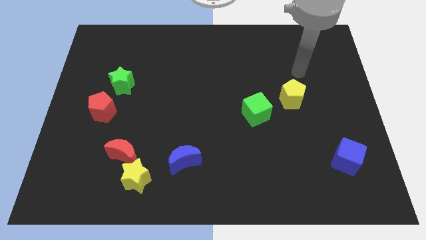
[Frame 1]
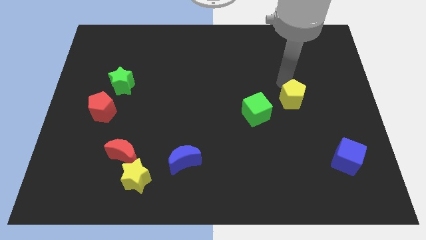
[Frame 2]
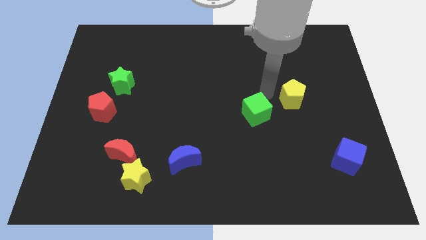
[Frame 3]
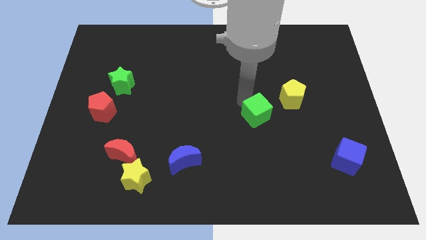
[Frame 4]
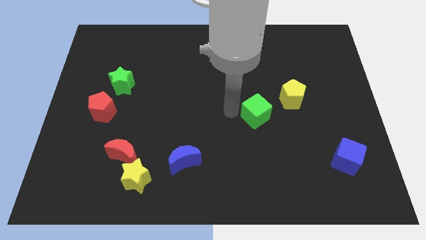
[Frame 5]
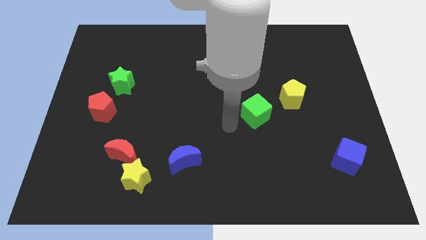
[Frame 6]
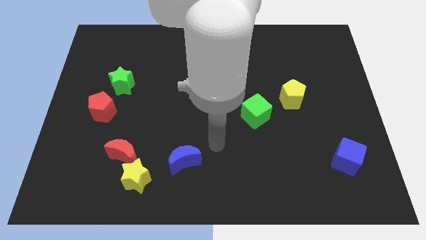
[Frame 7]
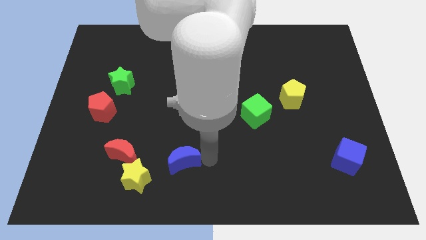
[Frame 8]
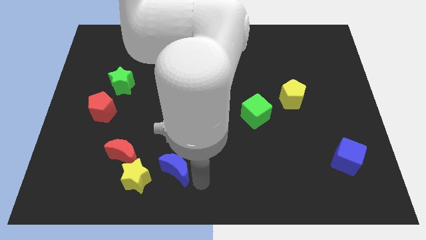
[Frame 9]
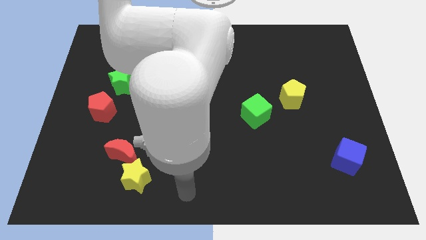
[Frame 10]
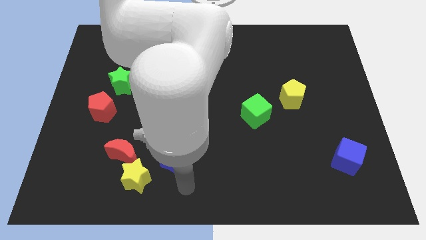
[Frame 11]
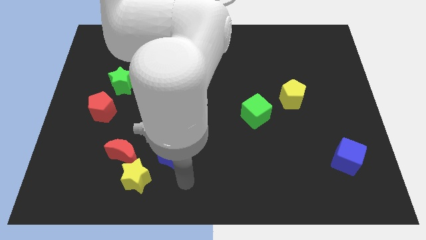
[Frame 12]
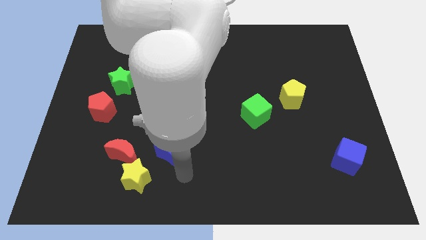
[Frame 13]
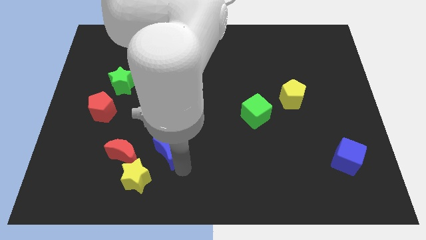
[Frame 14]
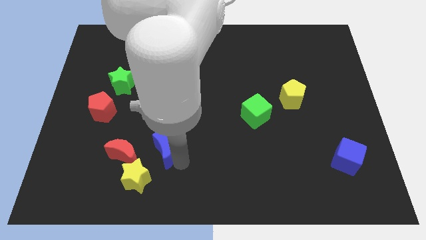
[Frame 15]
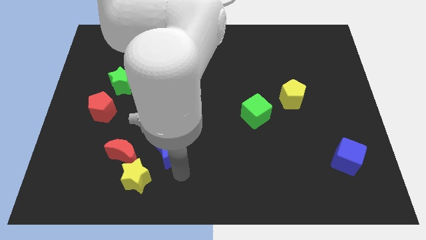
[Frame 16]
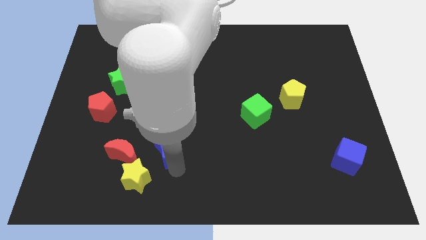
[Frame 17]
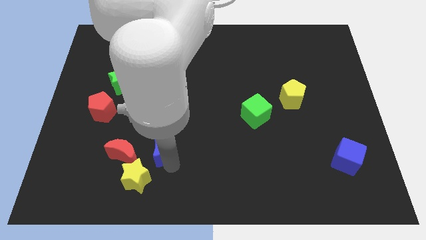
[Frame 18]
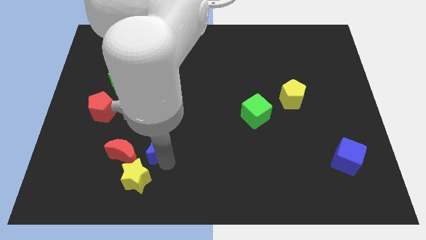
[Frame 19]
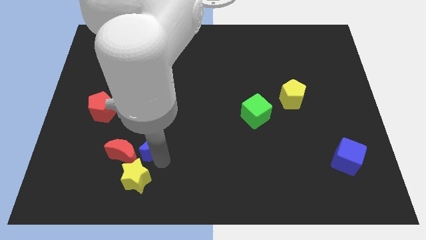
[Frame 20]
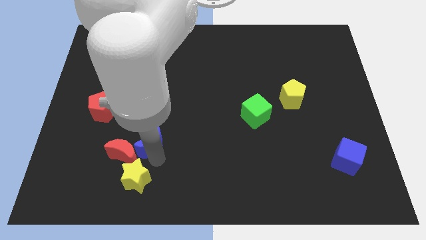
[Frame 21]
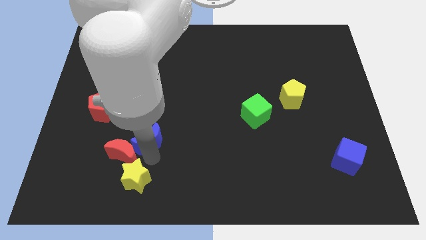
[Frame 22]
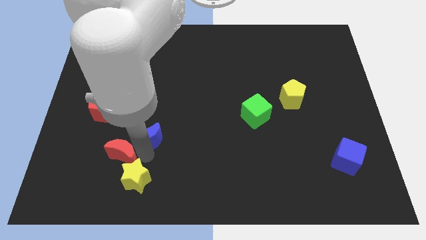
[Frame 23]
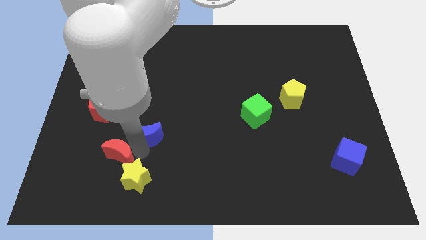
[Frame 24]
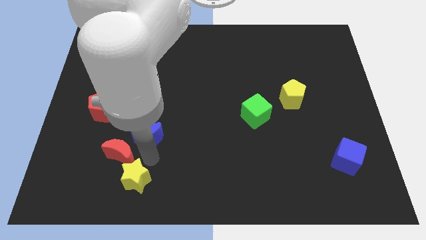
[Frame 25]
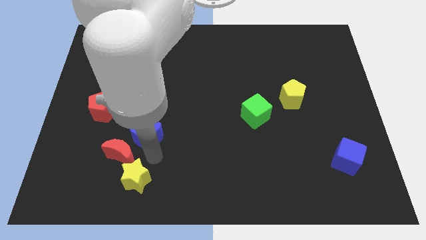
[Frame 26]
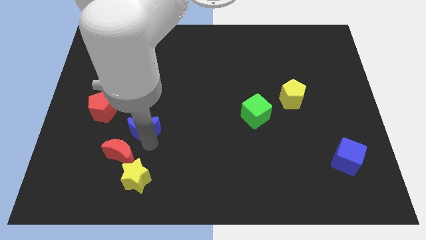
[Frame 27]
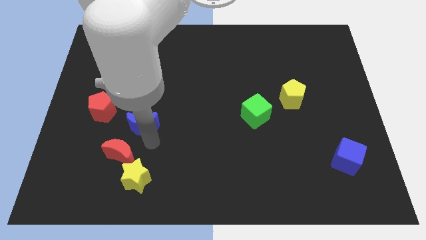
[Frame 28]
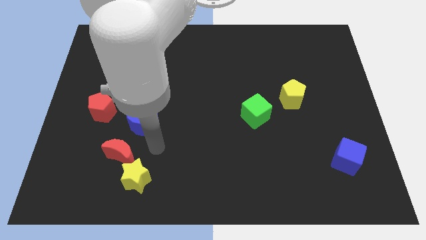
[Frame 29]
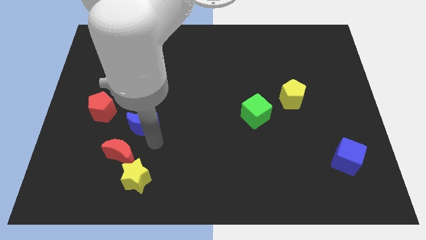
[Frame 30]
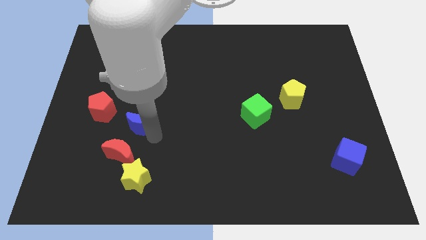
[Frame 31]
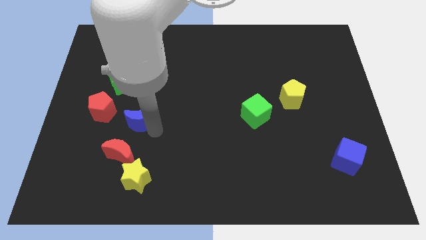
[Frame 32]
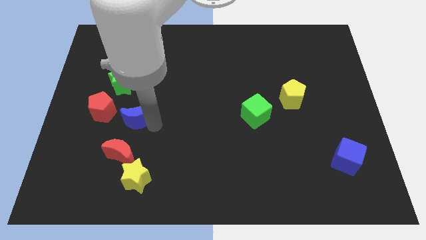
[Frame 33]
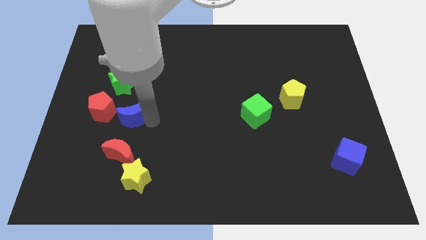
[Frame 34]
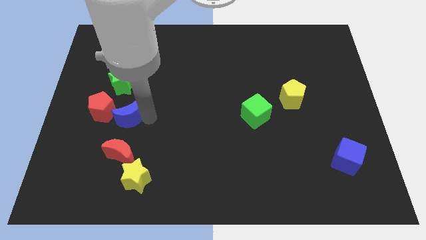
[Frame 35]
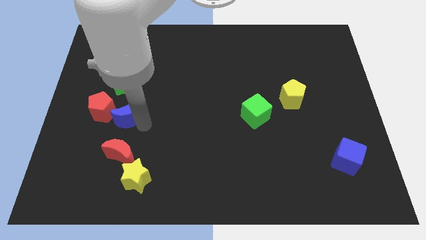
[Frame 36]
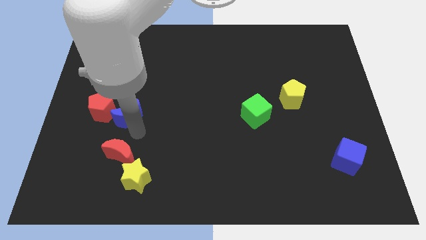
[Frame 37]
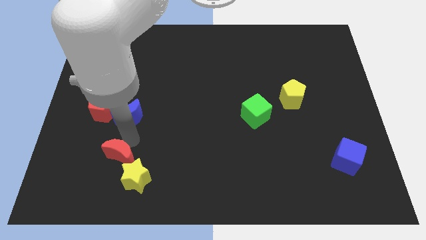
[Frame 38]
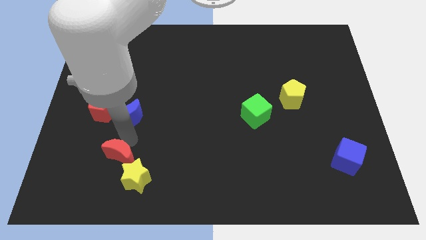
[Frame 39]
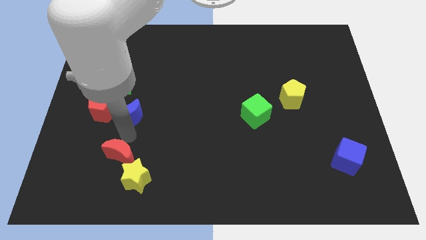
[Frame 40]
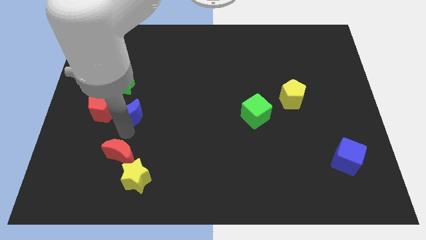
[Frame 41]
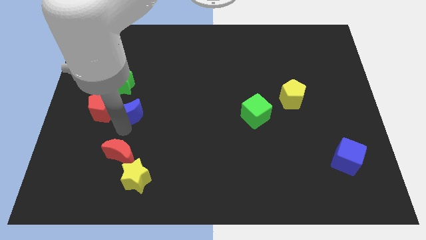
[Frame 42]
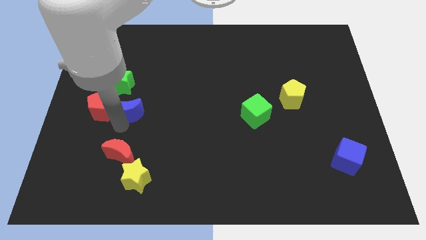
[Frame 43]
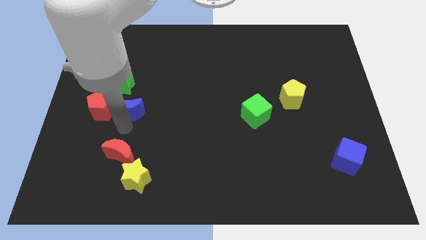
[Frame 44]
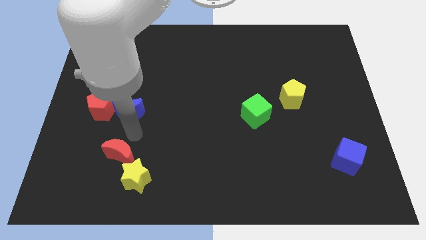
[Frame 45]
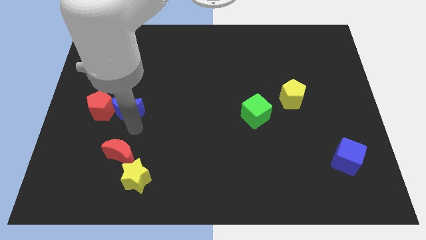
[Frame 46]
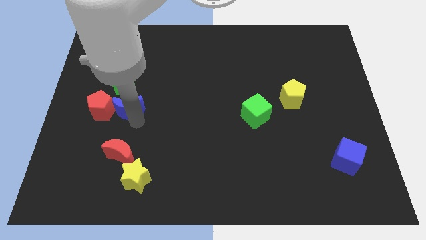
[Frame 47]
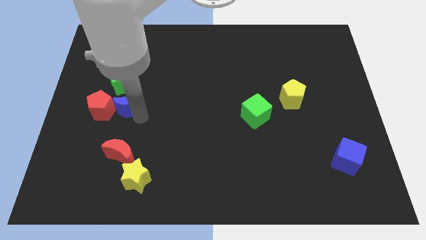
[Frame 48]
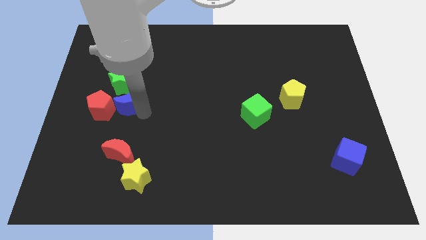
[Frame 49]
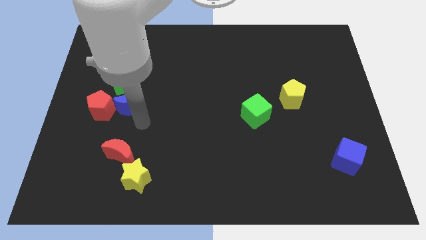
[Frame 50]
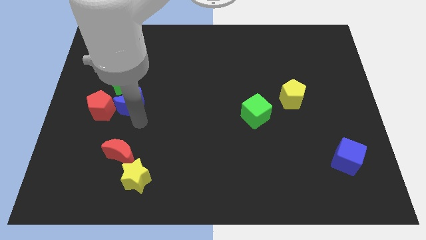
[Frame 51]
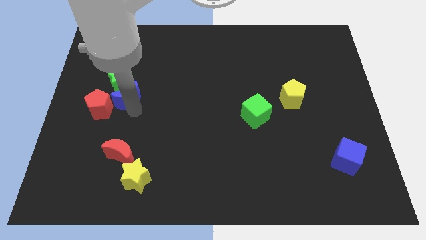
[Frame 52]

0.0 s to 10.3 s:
put the blue moon next to the green star

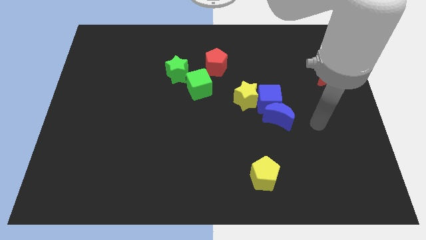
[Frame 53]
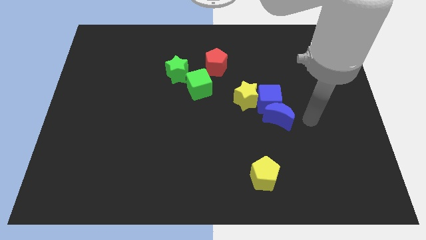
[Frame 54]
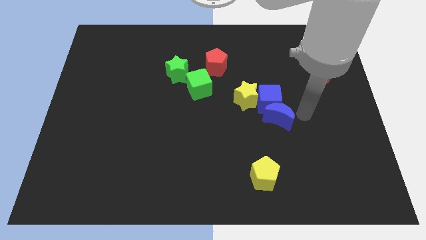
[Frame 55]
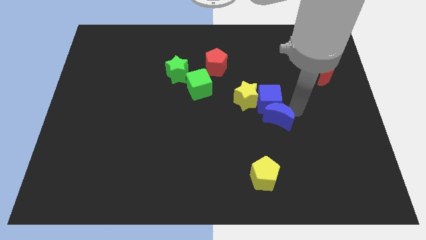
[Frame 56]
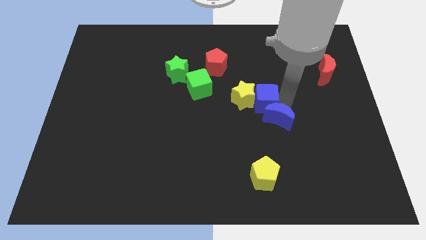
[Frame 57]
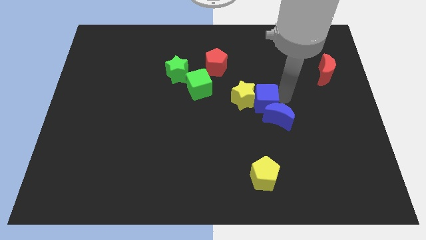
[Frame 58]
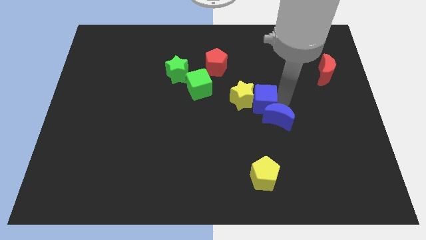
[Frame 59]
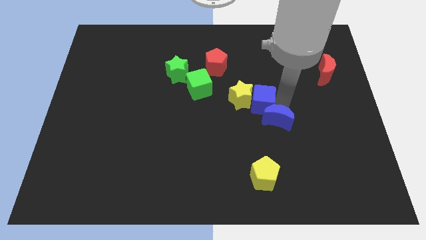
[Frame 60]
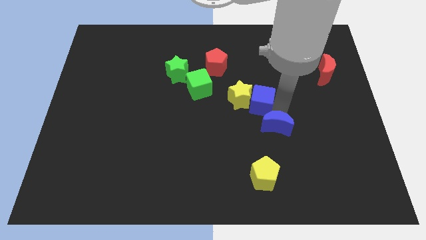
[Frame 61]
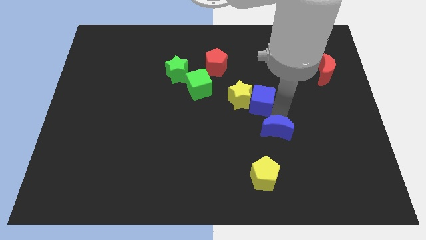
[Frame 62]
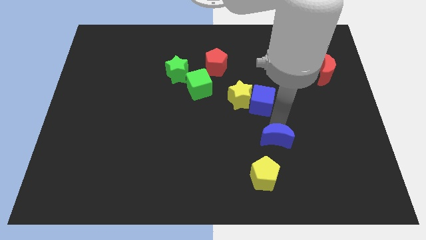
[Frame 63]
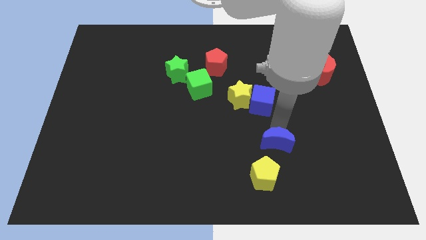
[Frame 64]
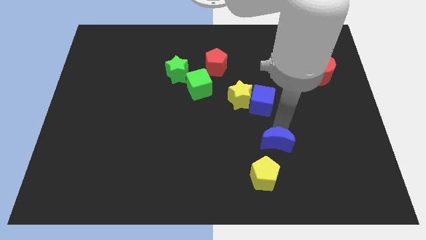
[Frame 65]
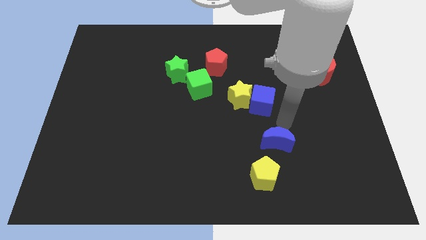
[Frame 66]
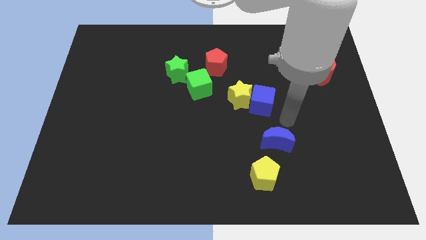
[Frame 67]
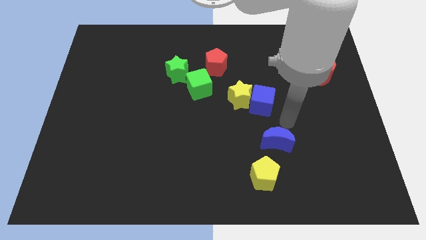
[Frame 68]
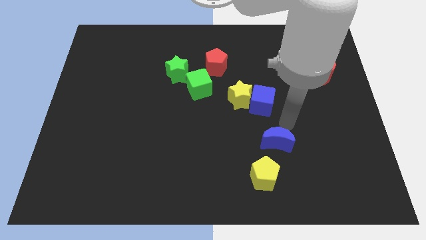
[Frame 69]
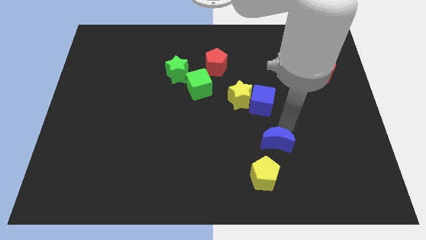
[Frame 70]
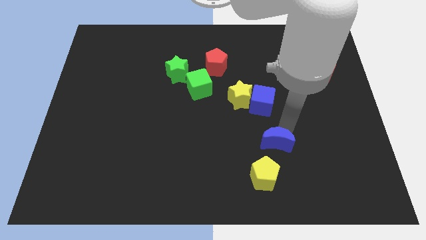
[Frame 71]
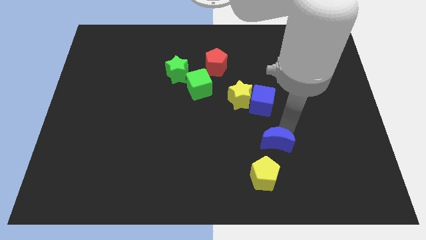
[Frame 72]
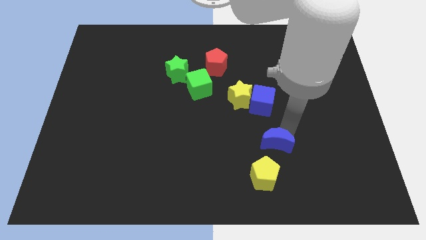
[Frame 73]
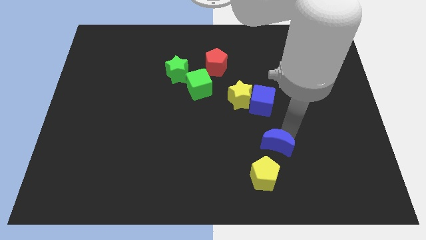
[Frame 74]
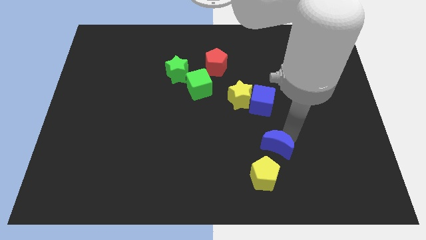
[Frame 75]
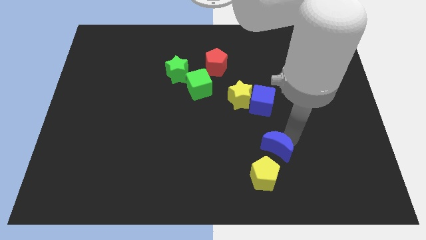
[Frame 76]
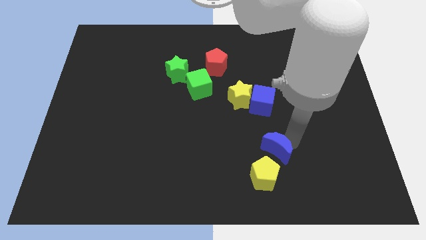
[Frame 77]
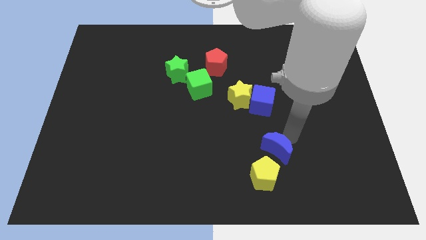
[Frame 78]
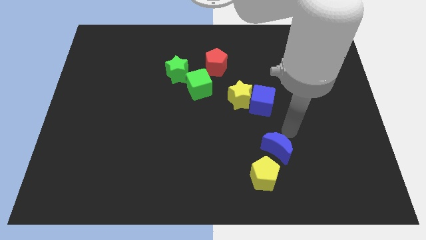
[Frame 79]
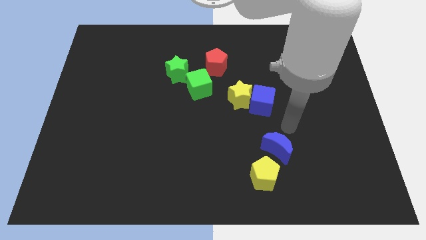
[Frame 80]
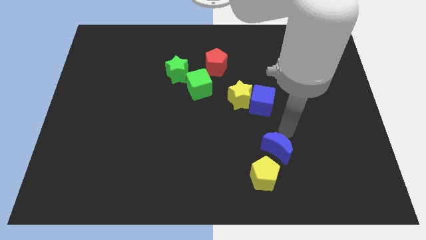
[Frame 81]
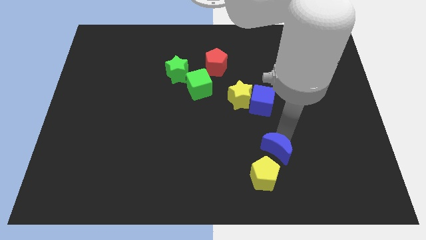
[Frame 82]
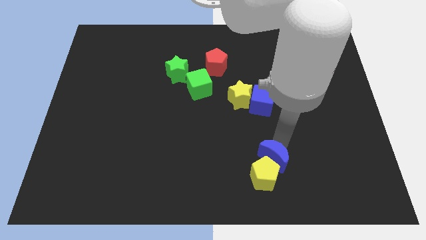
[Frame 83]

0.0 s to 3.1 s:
put the blue moon towards the yellow pentagon
